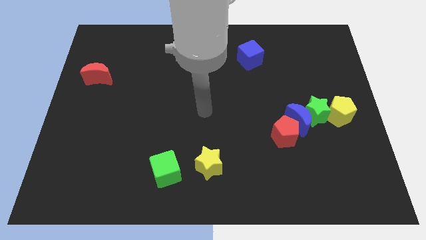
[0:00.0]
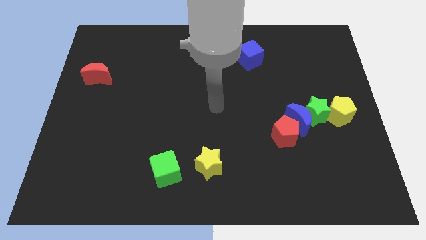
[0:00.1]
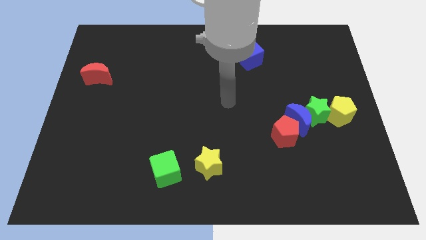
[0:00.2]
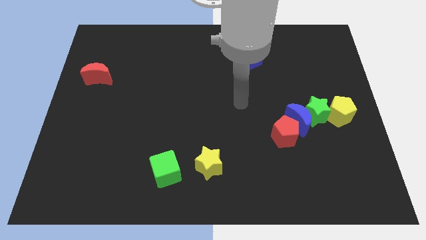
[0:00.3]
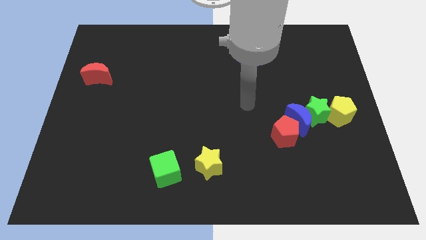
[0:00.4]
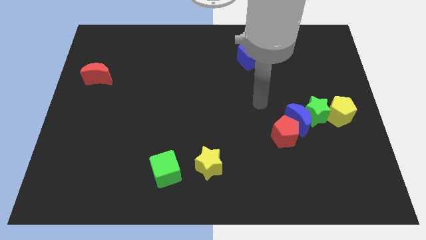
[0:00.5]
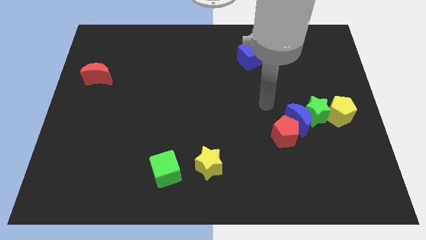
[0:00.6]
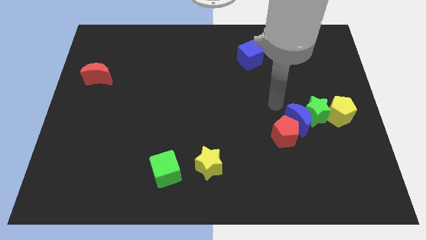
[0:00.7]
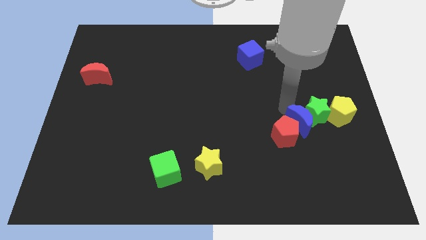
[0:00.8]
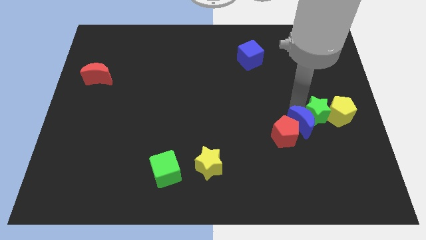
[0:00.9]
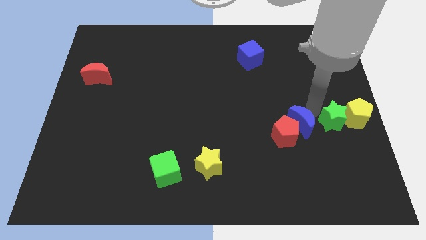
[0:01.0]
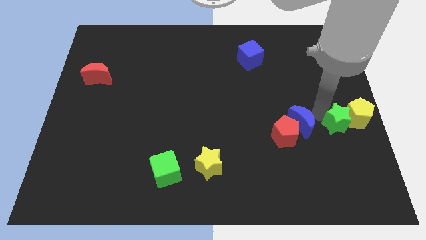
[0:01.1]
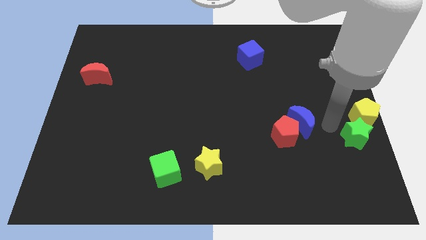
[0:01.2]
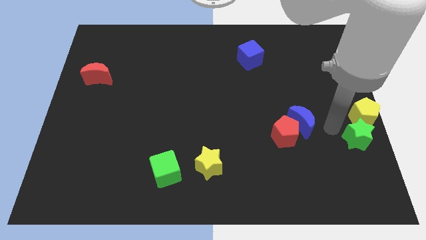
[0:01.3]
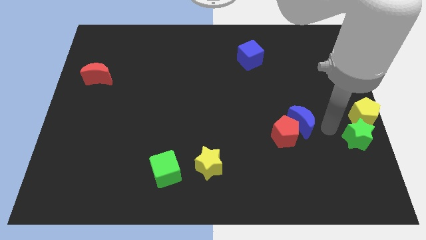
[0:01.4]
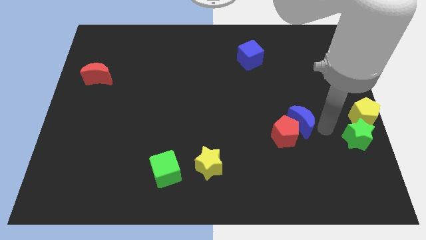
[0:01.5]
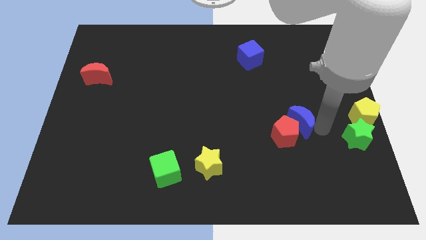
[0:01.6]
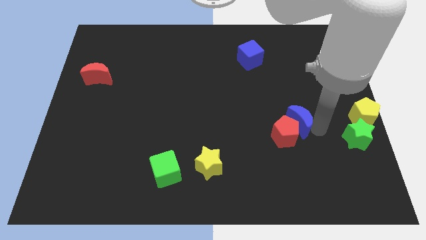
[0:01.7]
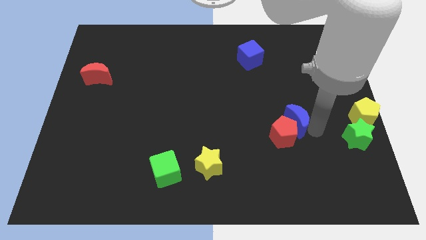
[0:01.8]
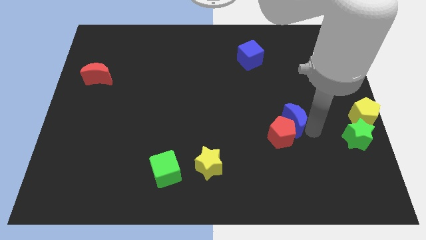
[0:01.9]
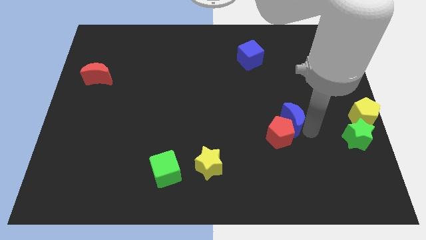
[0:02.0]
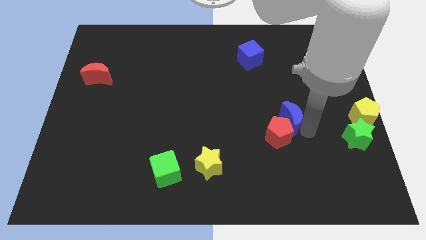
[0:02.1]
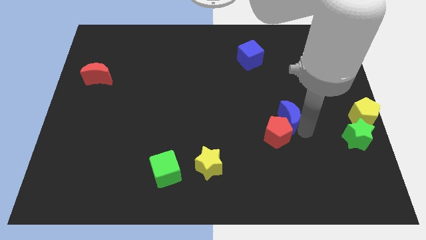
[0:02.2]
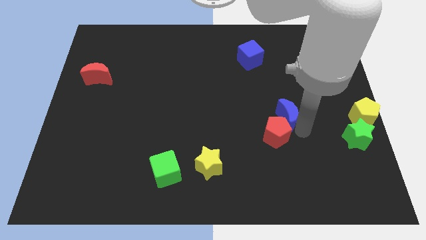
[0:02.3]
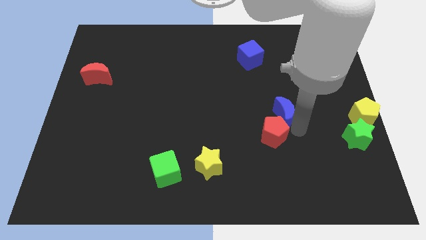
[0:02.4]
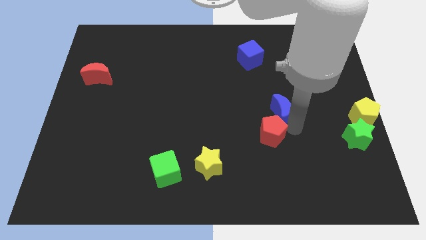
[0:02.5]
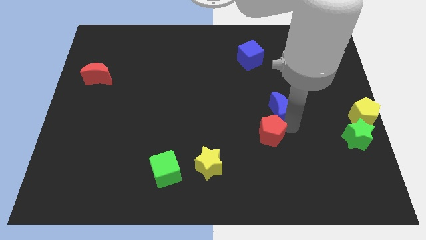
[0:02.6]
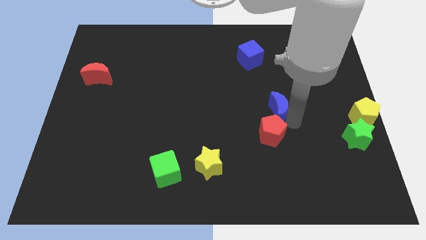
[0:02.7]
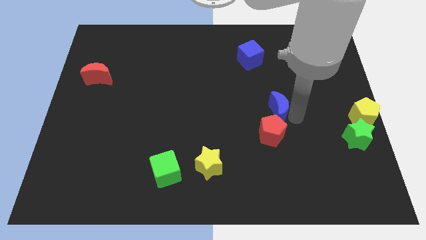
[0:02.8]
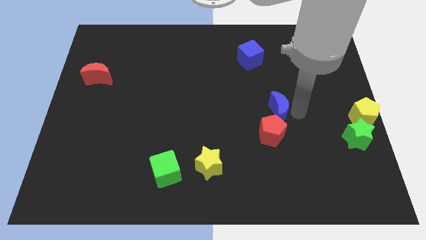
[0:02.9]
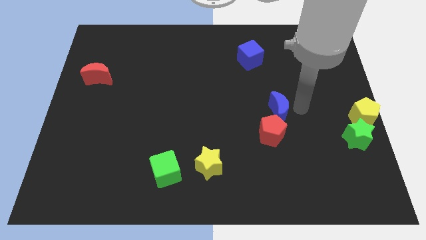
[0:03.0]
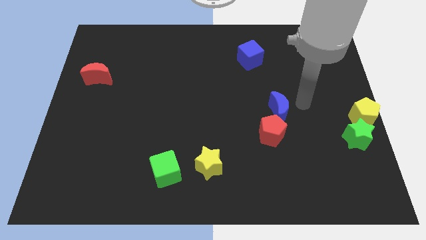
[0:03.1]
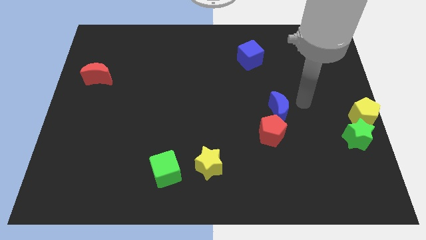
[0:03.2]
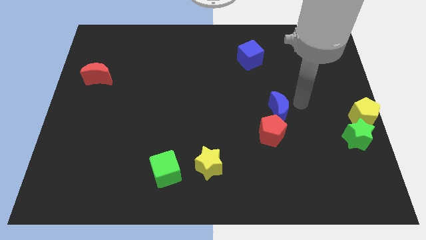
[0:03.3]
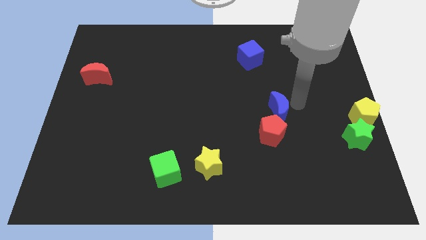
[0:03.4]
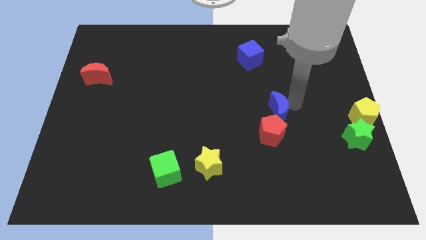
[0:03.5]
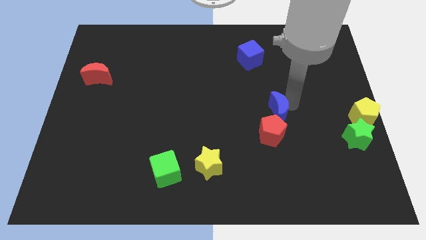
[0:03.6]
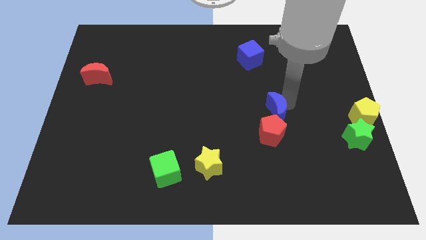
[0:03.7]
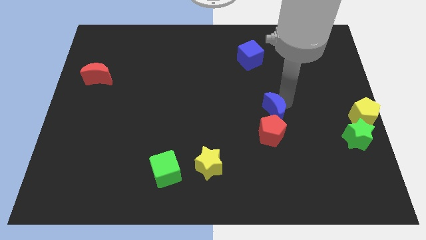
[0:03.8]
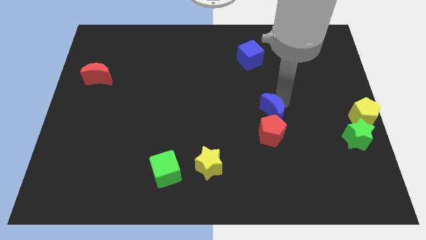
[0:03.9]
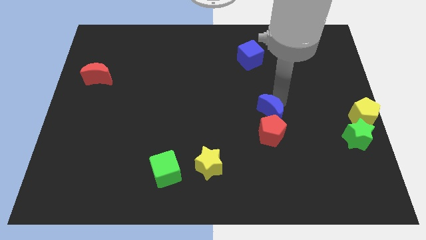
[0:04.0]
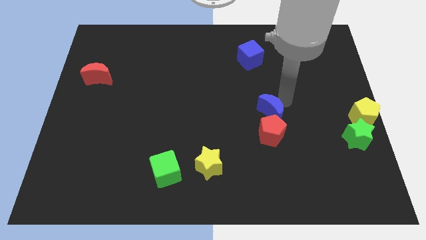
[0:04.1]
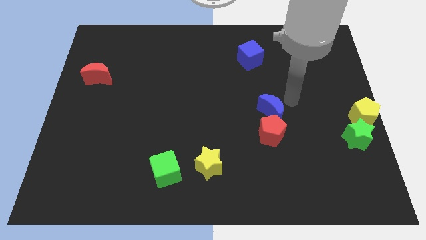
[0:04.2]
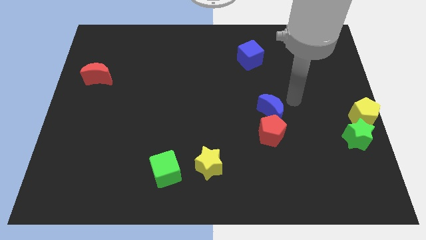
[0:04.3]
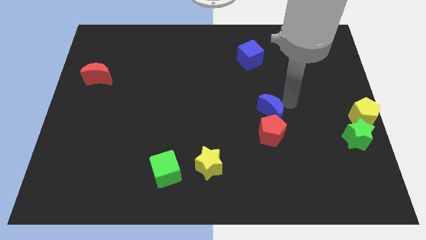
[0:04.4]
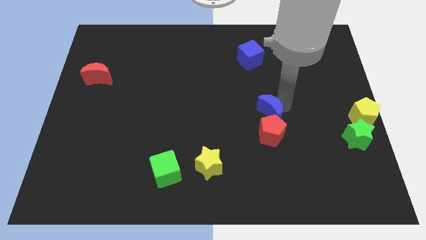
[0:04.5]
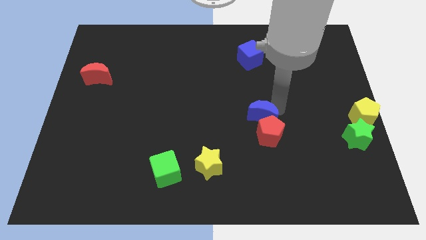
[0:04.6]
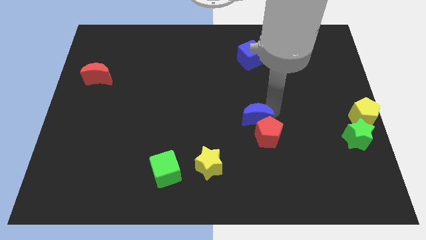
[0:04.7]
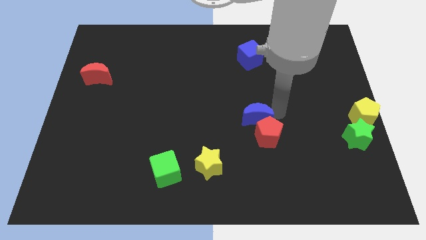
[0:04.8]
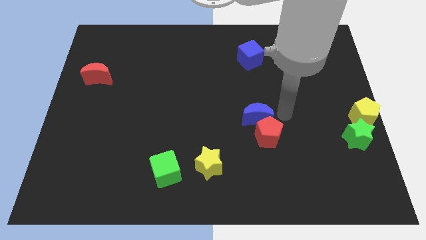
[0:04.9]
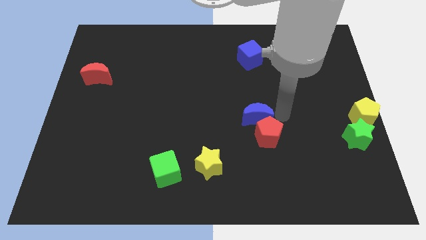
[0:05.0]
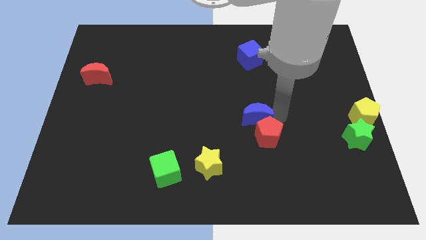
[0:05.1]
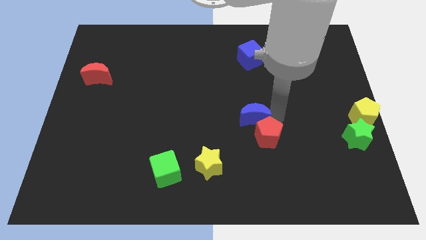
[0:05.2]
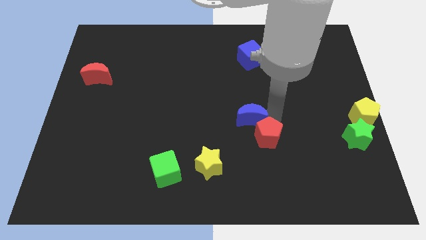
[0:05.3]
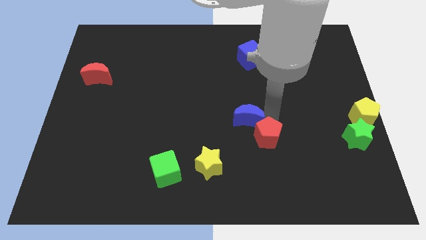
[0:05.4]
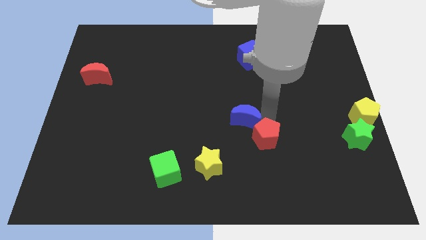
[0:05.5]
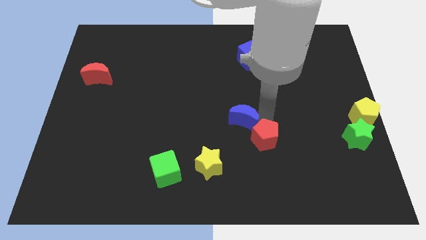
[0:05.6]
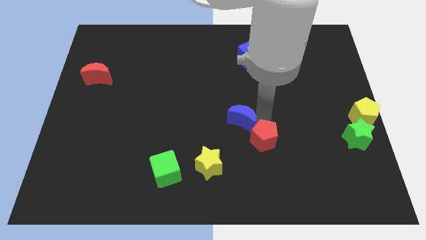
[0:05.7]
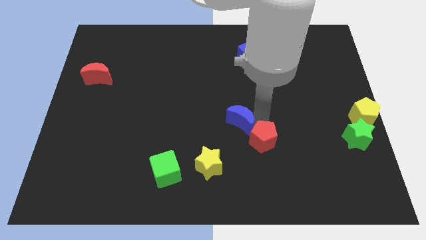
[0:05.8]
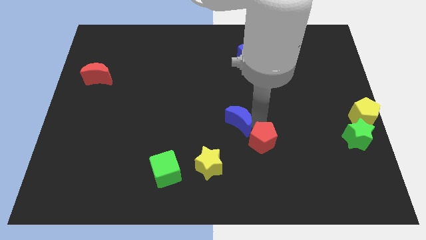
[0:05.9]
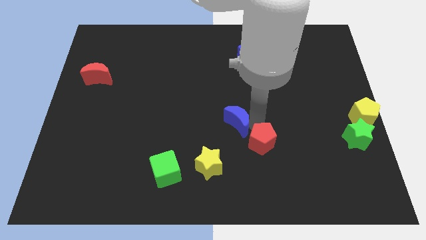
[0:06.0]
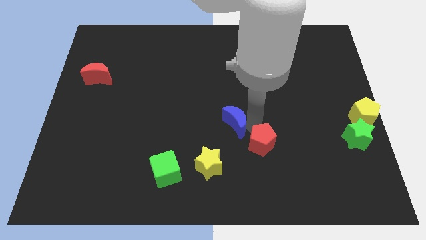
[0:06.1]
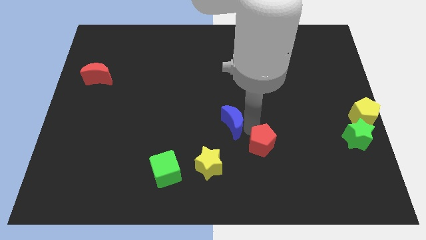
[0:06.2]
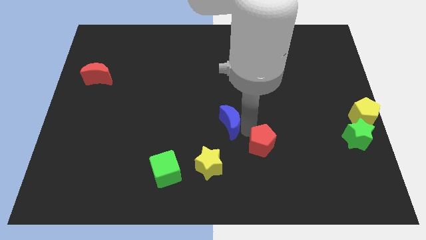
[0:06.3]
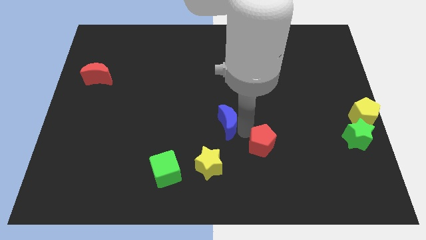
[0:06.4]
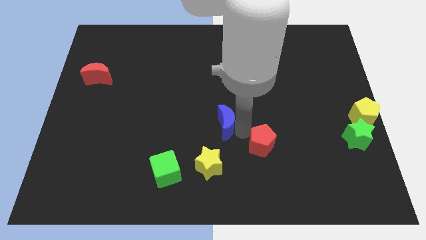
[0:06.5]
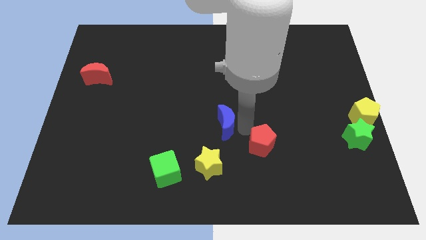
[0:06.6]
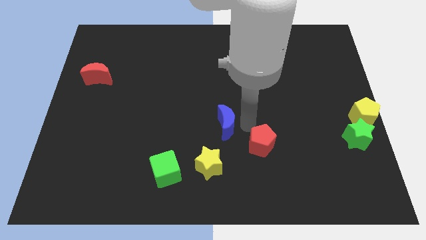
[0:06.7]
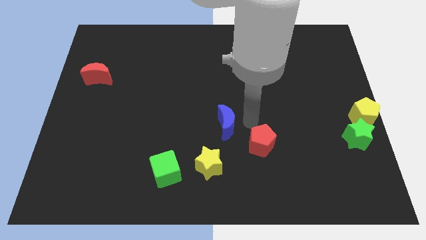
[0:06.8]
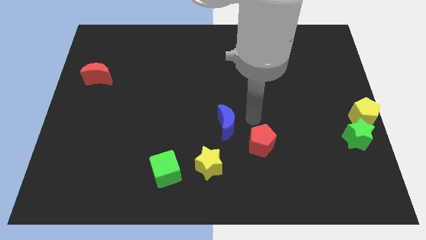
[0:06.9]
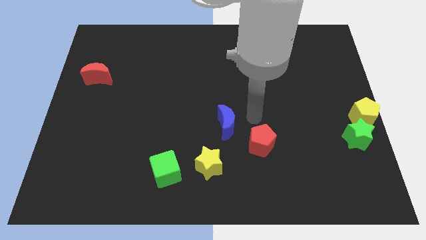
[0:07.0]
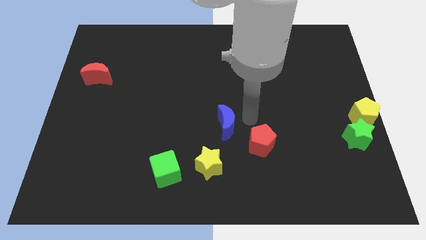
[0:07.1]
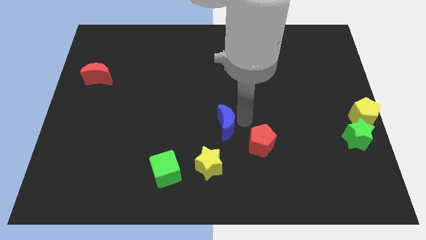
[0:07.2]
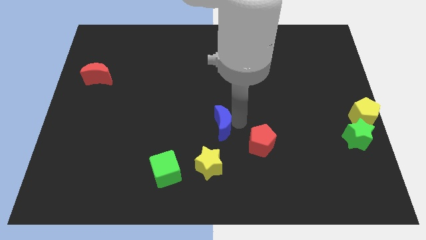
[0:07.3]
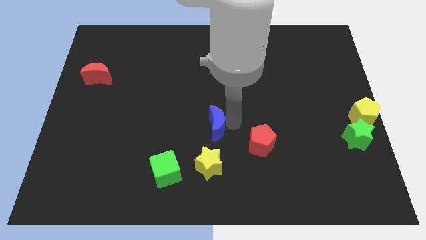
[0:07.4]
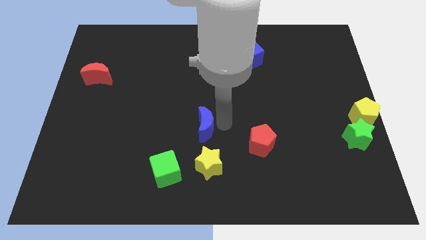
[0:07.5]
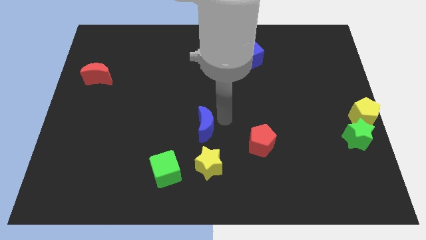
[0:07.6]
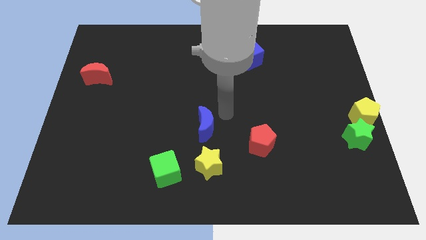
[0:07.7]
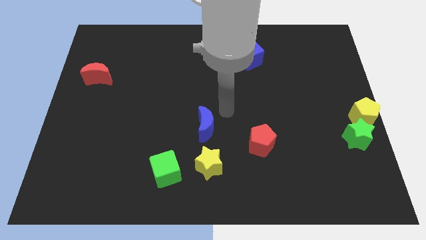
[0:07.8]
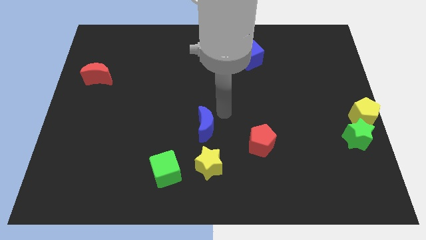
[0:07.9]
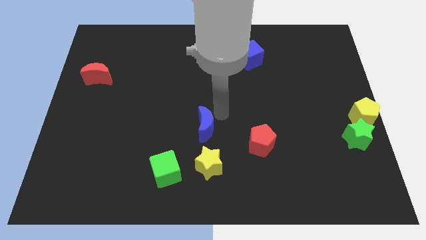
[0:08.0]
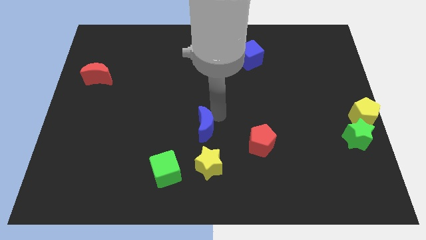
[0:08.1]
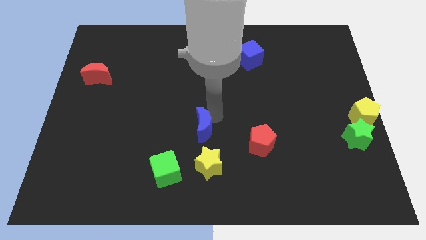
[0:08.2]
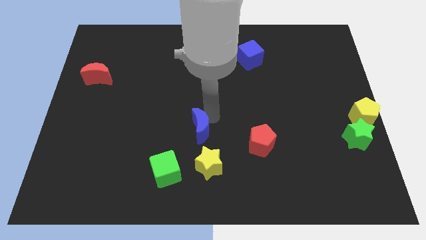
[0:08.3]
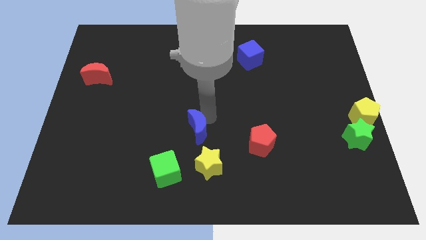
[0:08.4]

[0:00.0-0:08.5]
slide the blue moon to the top left of the yellow star
